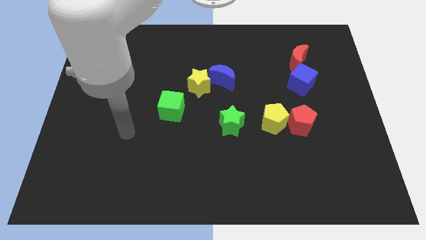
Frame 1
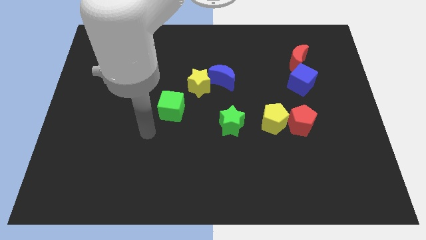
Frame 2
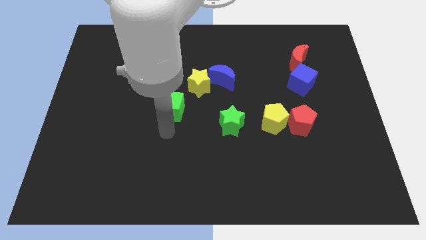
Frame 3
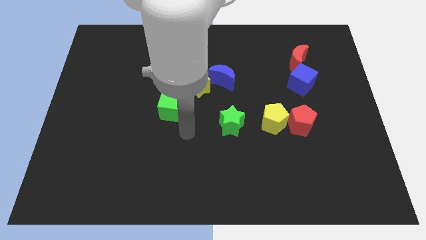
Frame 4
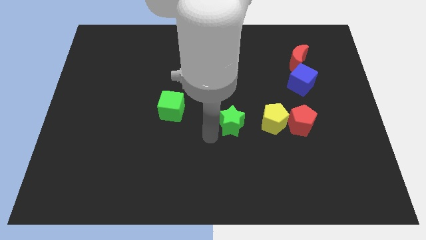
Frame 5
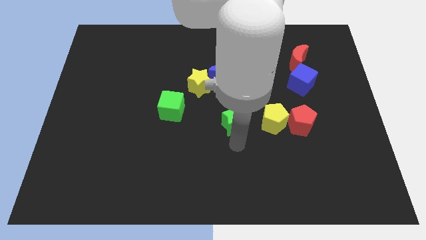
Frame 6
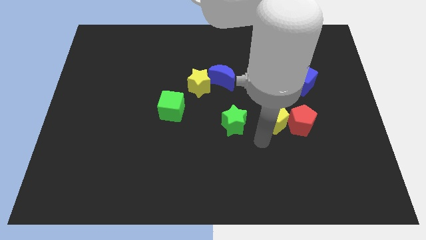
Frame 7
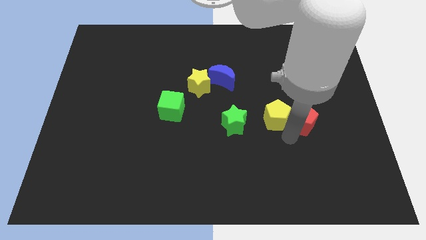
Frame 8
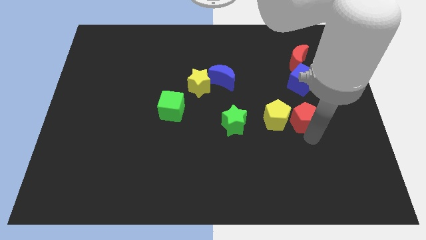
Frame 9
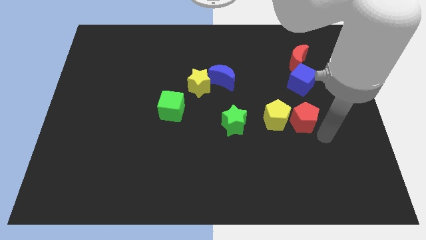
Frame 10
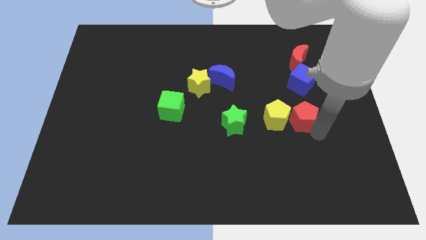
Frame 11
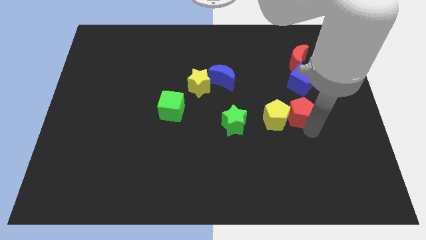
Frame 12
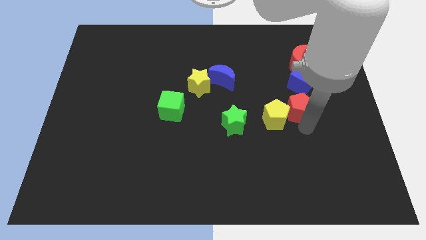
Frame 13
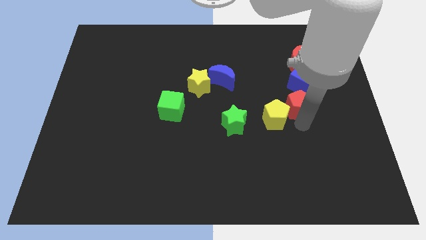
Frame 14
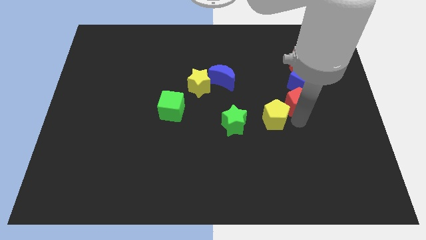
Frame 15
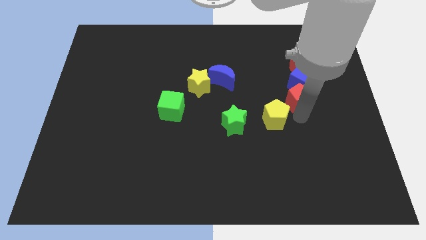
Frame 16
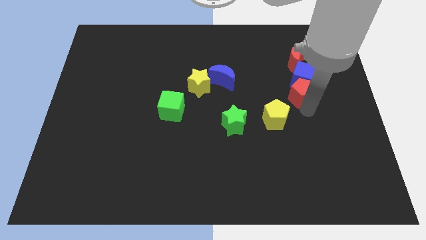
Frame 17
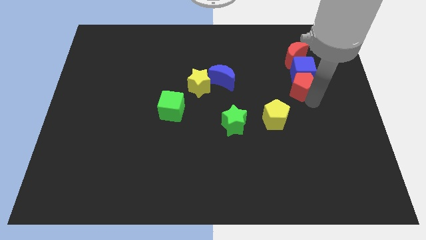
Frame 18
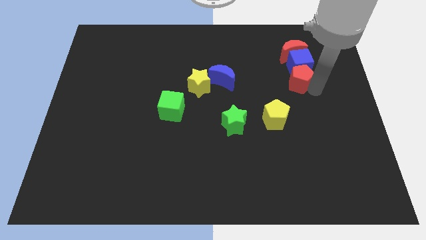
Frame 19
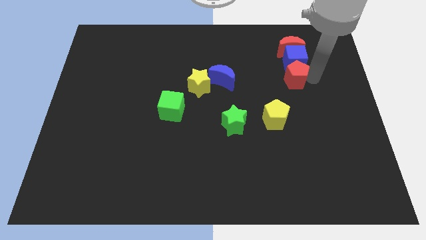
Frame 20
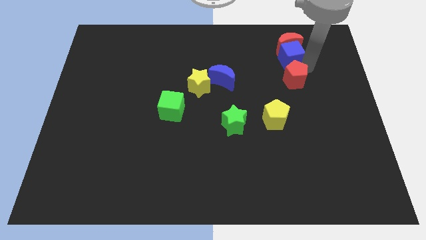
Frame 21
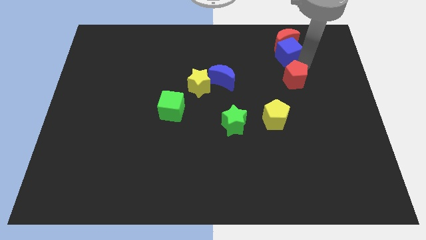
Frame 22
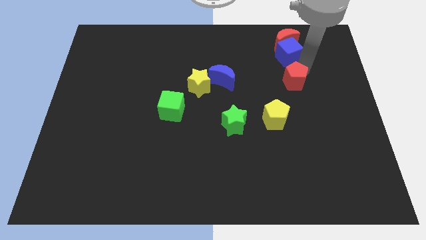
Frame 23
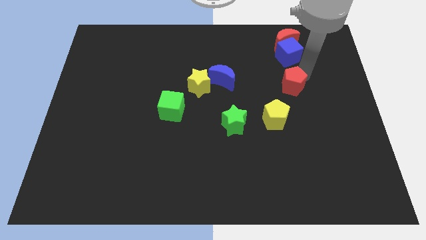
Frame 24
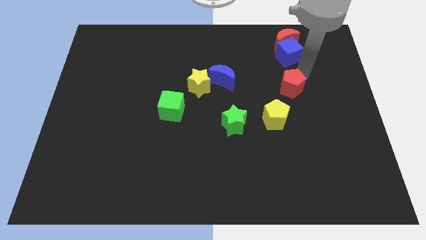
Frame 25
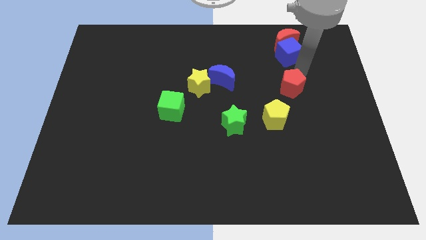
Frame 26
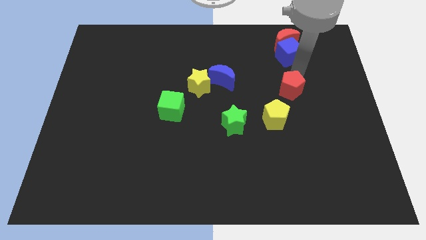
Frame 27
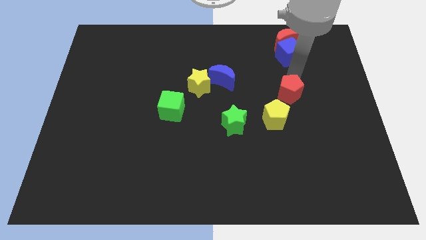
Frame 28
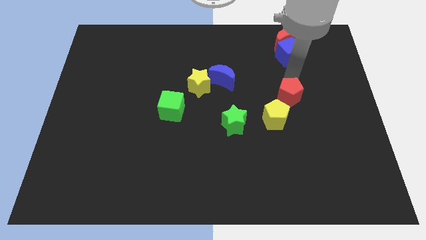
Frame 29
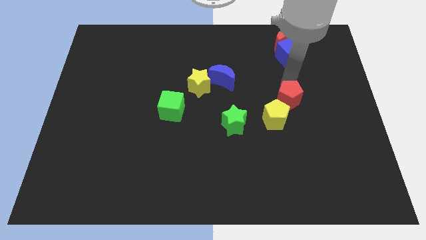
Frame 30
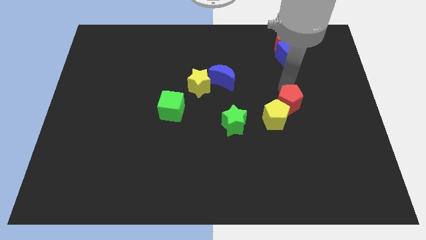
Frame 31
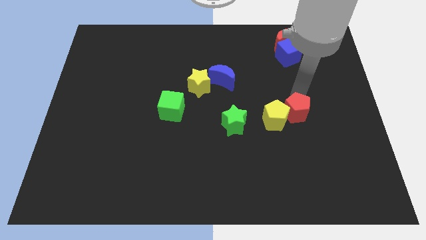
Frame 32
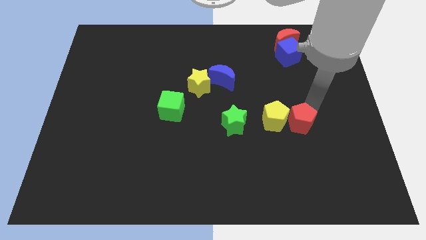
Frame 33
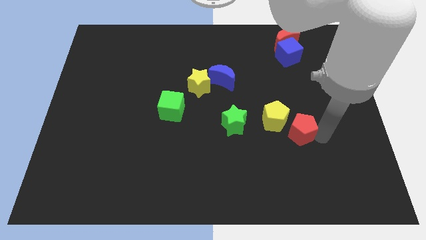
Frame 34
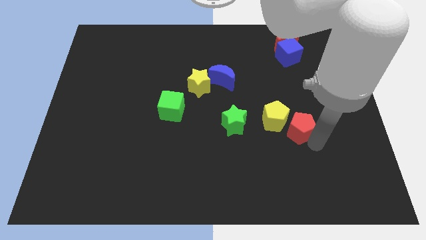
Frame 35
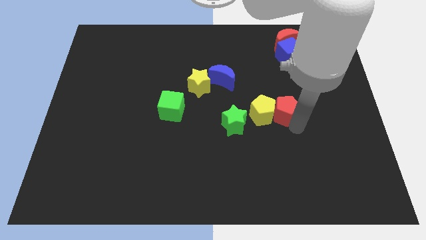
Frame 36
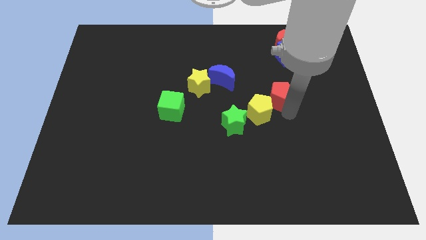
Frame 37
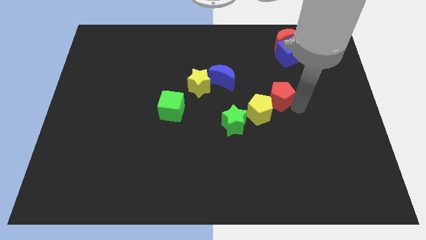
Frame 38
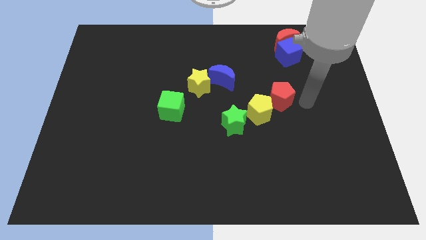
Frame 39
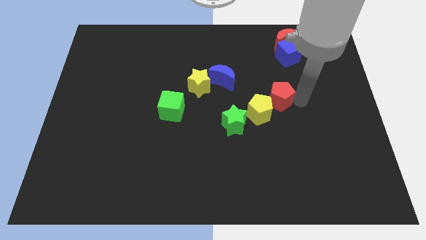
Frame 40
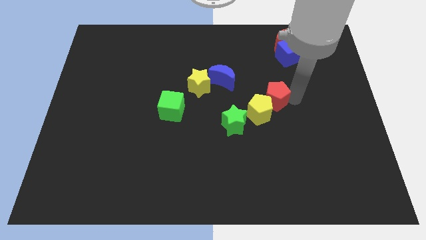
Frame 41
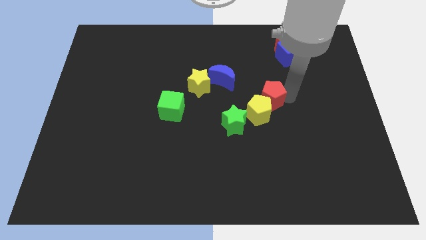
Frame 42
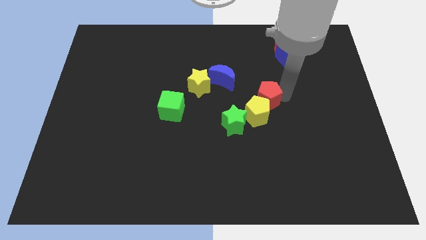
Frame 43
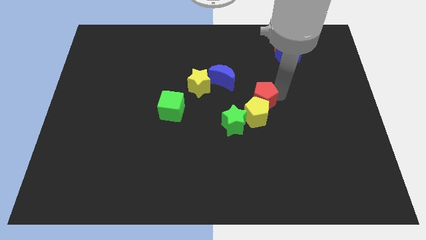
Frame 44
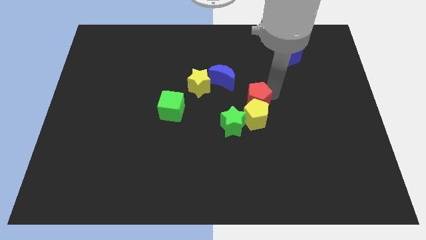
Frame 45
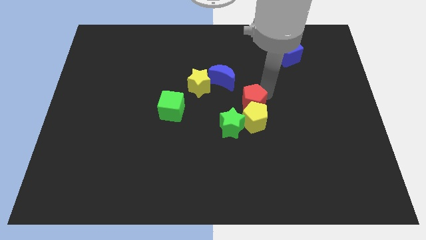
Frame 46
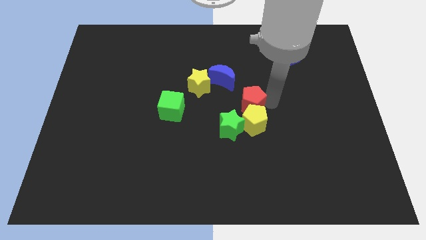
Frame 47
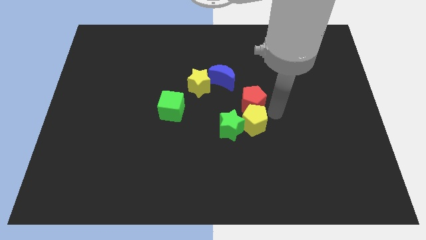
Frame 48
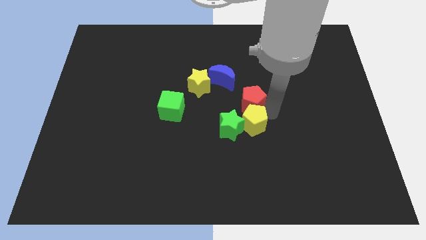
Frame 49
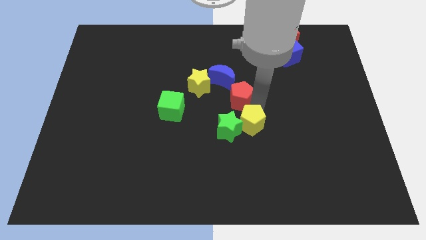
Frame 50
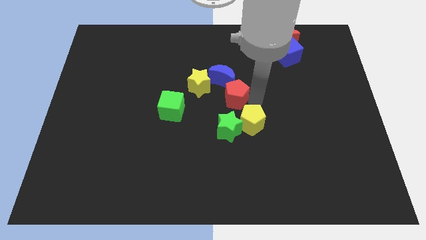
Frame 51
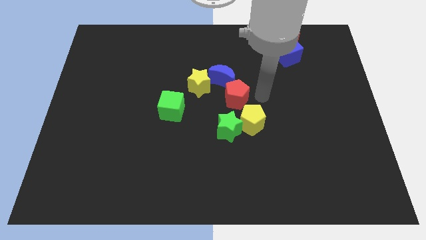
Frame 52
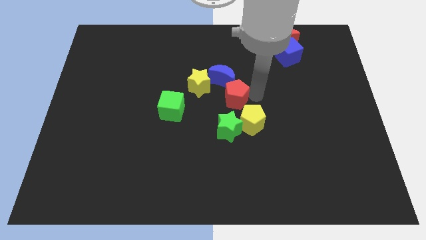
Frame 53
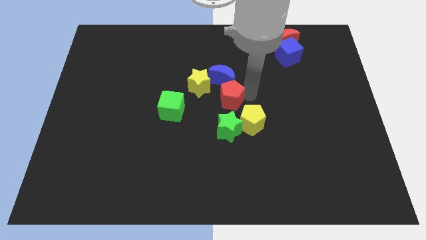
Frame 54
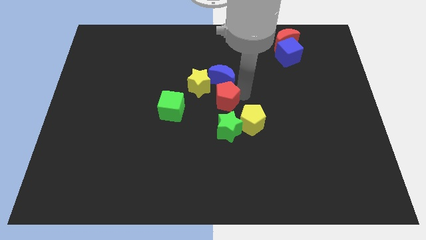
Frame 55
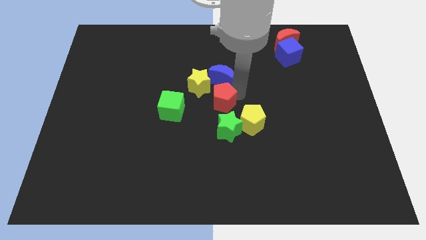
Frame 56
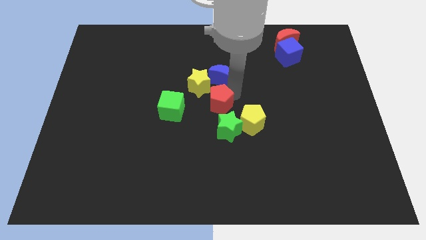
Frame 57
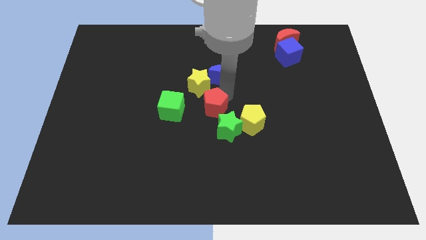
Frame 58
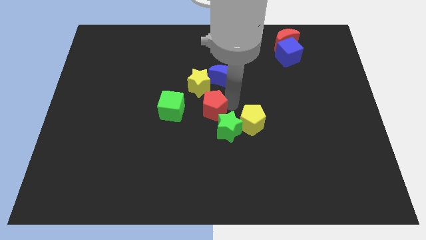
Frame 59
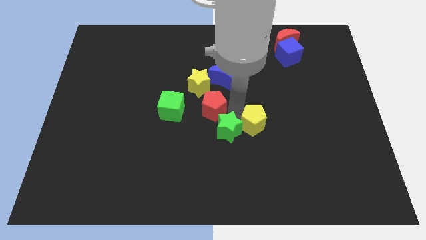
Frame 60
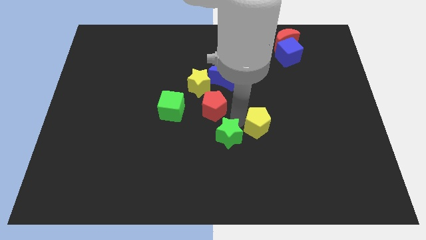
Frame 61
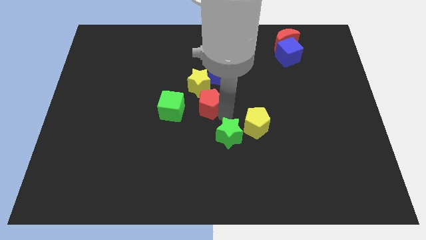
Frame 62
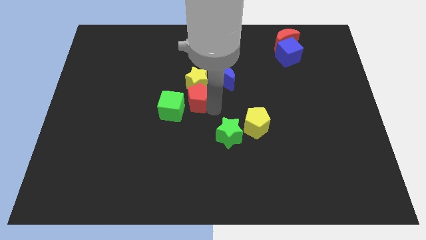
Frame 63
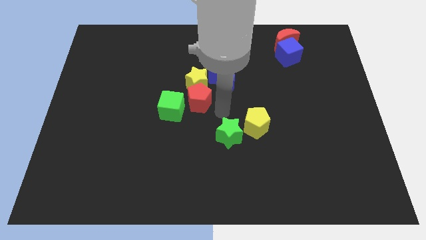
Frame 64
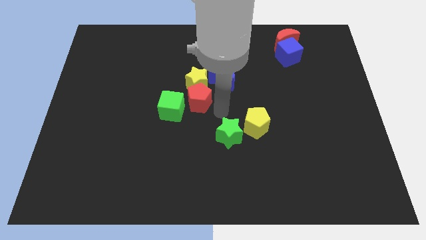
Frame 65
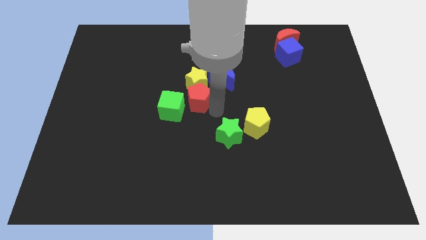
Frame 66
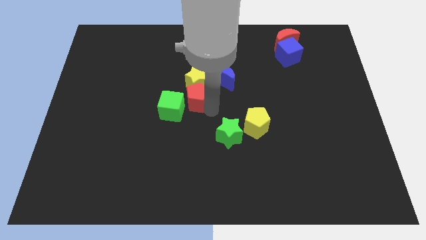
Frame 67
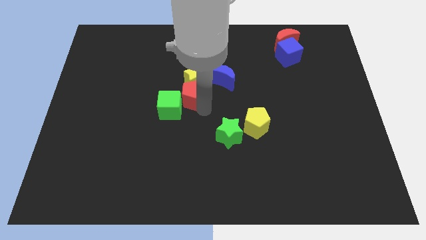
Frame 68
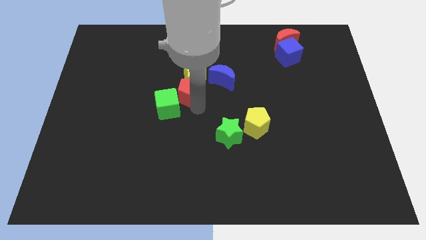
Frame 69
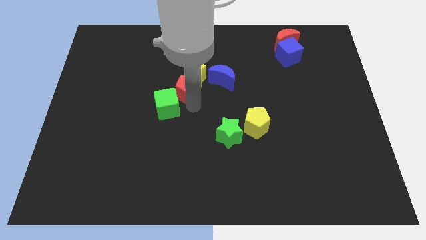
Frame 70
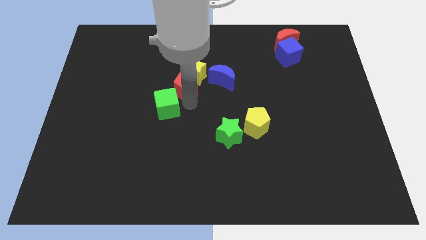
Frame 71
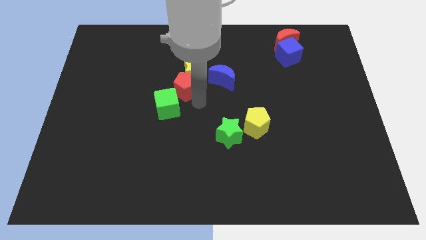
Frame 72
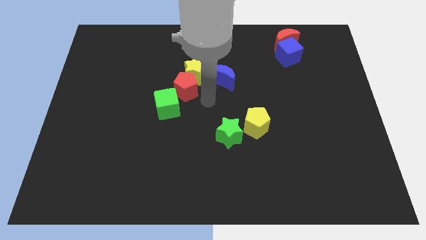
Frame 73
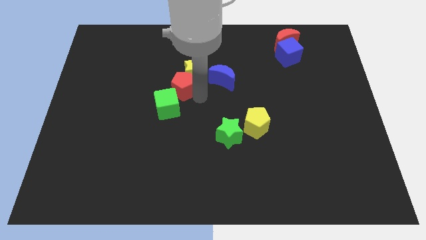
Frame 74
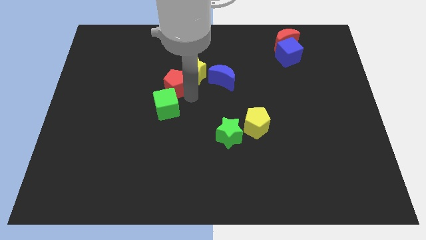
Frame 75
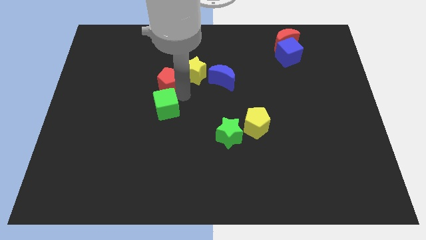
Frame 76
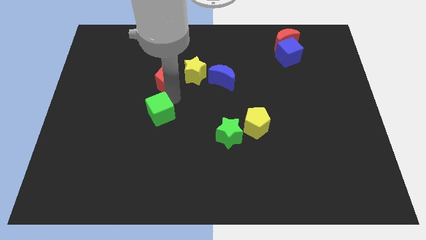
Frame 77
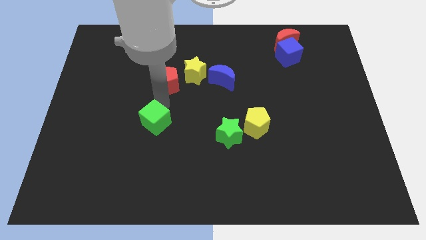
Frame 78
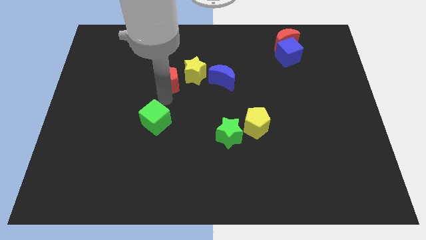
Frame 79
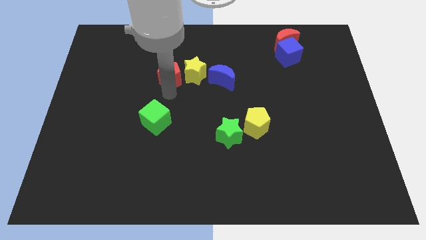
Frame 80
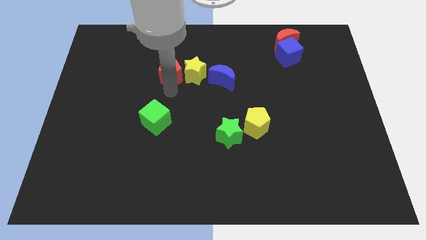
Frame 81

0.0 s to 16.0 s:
push the red pentagon to the top left side of the yellow star
